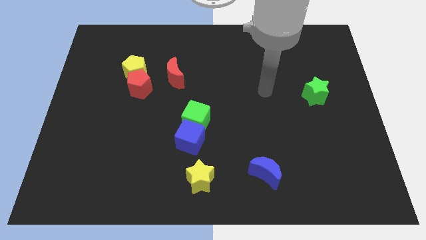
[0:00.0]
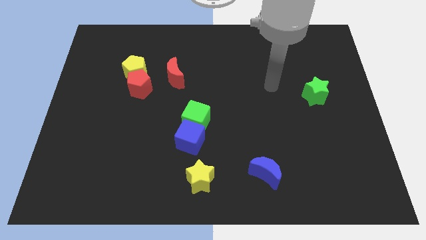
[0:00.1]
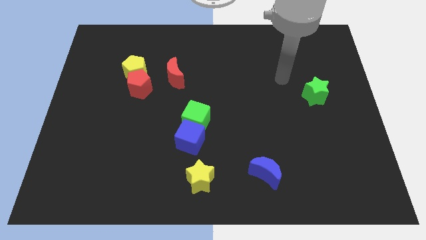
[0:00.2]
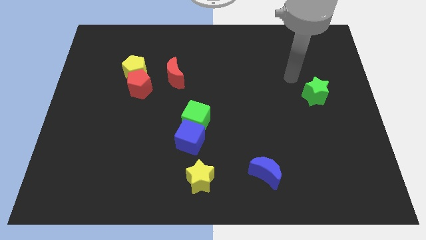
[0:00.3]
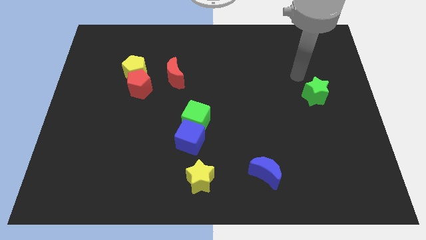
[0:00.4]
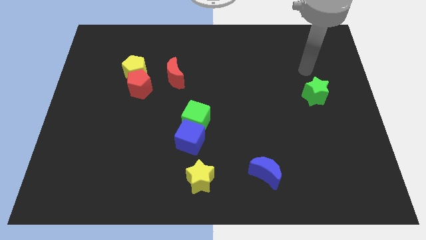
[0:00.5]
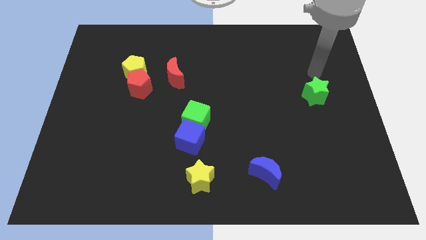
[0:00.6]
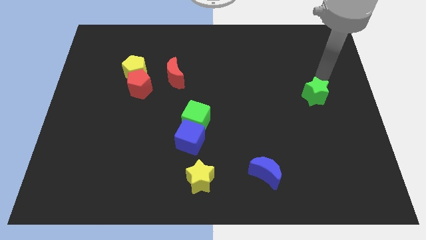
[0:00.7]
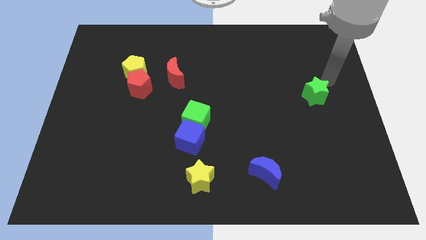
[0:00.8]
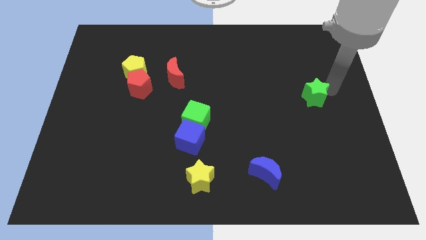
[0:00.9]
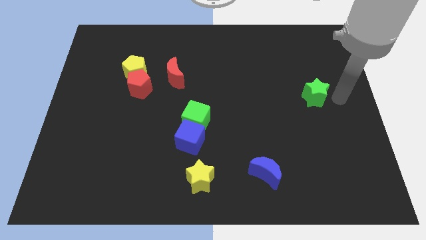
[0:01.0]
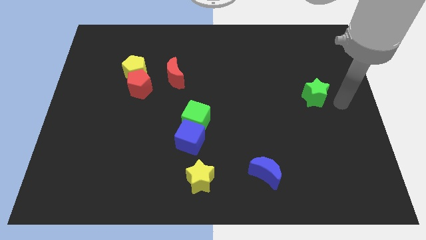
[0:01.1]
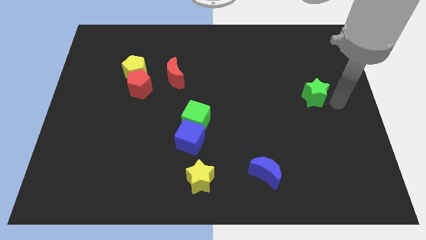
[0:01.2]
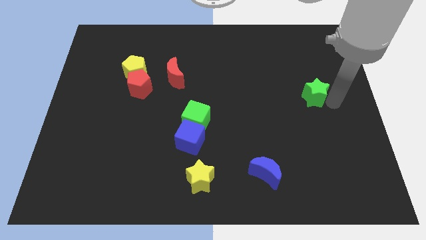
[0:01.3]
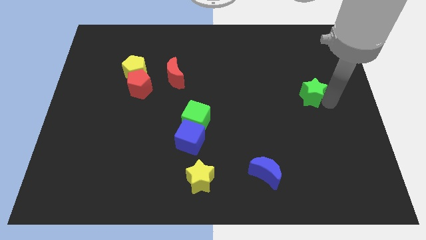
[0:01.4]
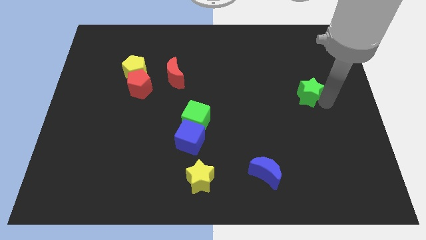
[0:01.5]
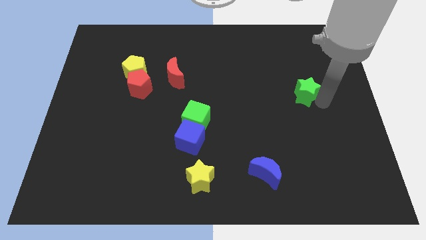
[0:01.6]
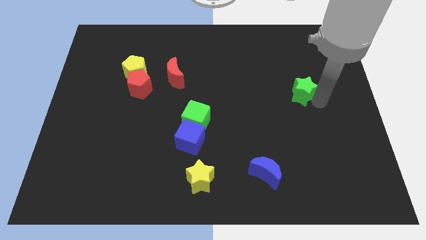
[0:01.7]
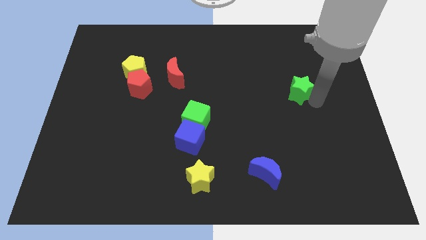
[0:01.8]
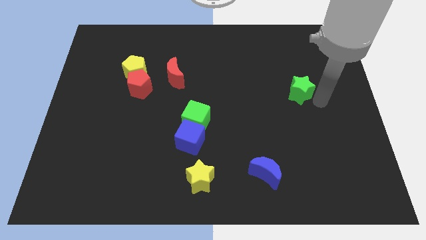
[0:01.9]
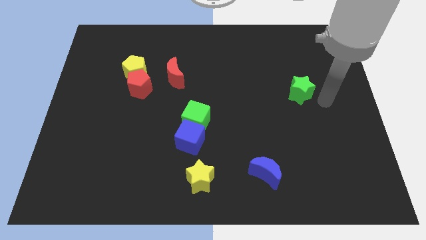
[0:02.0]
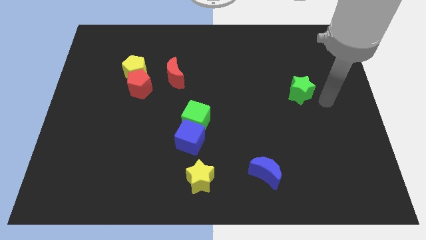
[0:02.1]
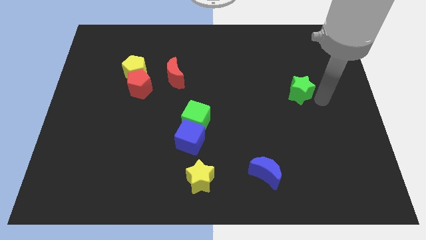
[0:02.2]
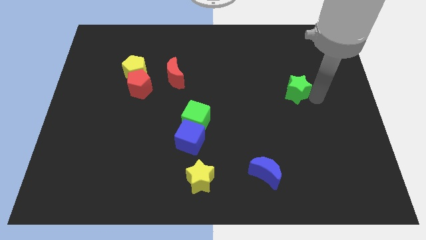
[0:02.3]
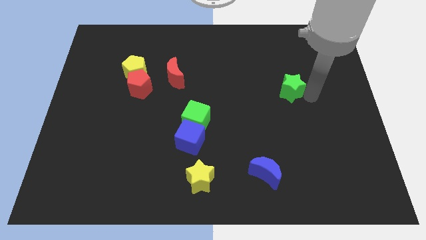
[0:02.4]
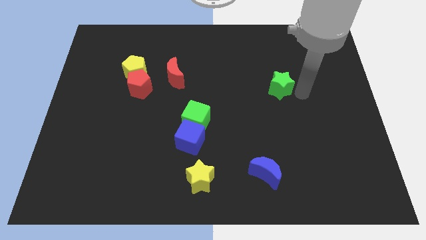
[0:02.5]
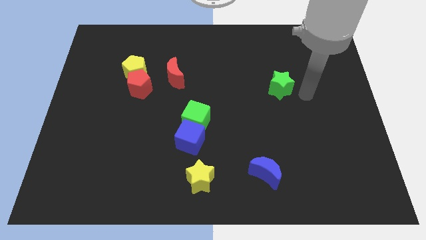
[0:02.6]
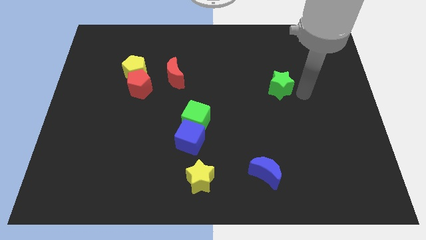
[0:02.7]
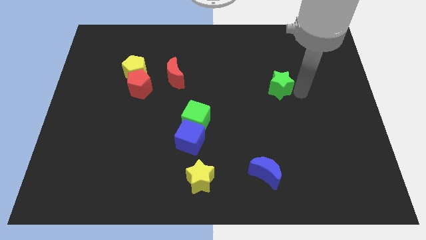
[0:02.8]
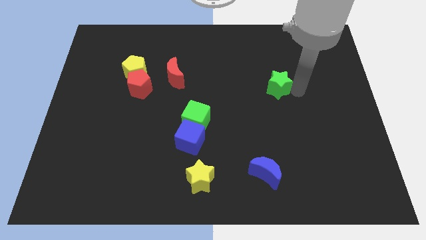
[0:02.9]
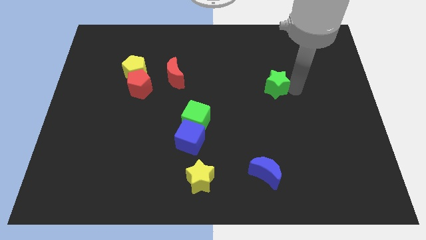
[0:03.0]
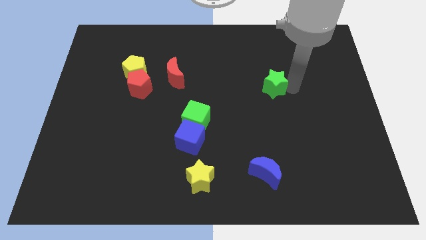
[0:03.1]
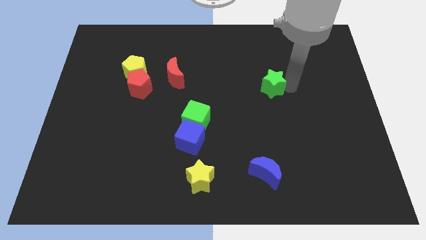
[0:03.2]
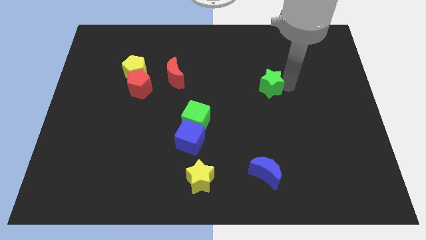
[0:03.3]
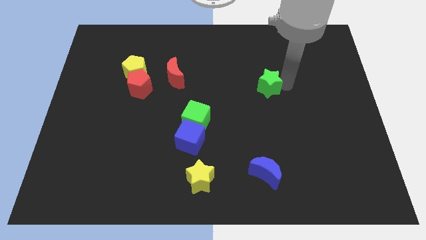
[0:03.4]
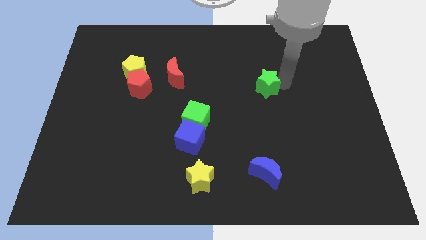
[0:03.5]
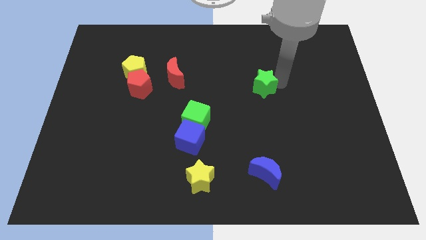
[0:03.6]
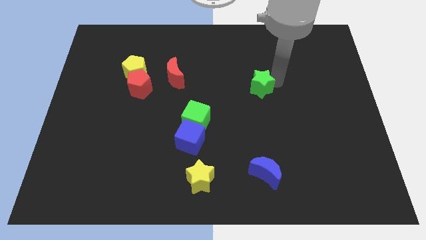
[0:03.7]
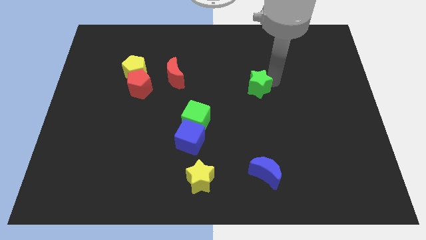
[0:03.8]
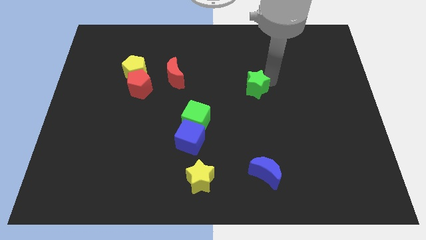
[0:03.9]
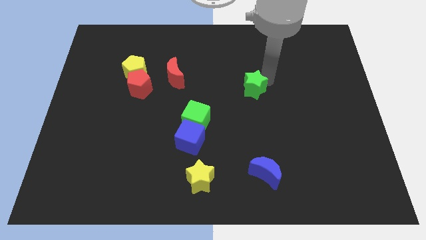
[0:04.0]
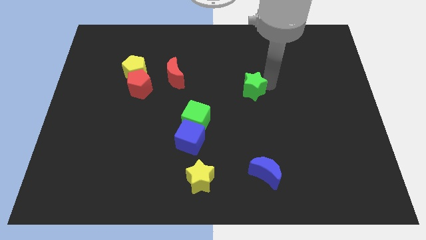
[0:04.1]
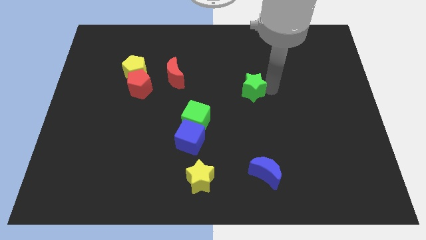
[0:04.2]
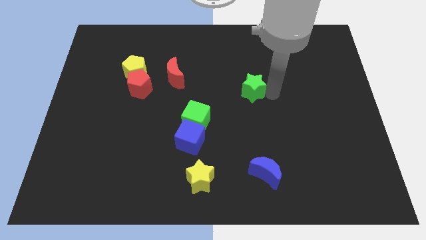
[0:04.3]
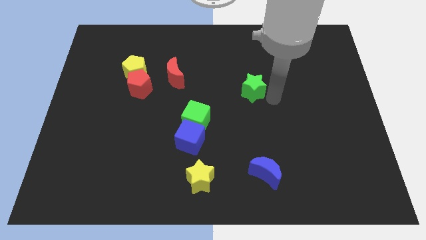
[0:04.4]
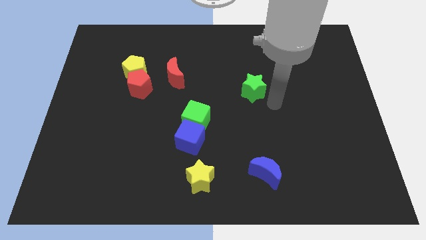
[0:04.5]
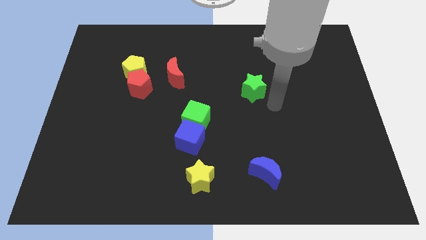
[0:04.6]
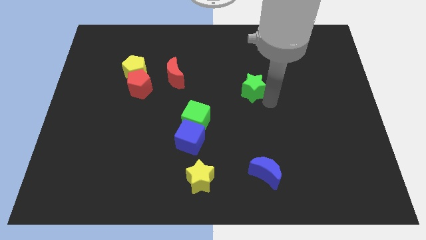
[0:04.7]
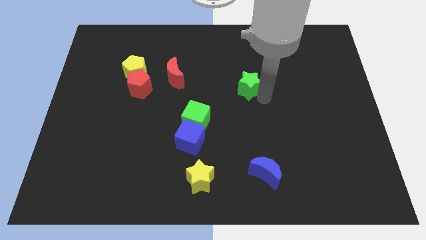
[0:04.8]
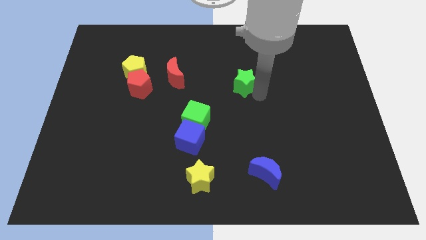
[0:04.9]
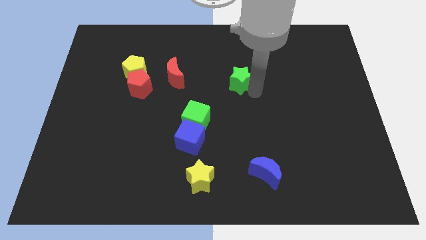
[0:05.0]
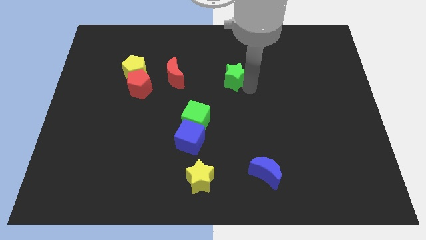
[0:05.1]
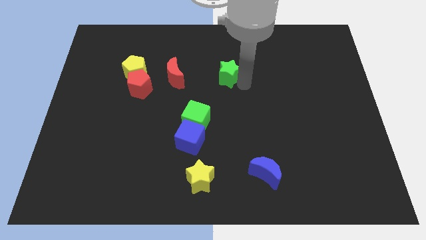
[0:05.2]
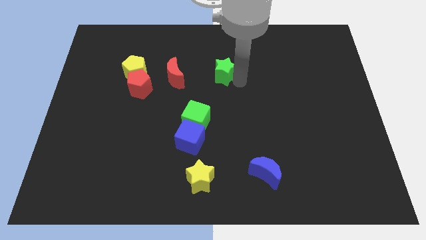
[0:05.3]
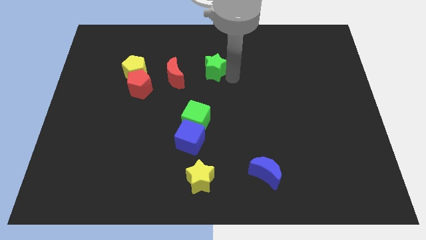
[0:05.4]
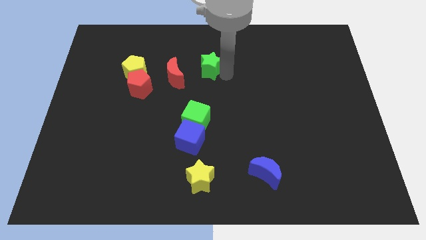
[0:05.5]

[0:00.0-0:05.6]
slide the green star diagonally up and to the right of the red moon

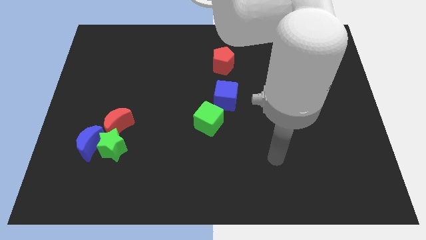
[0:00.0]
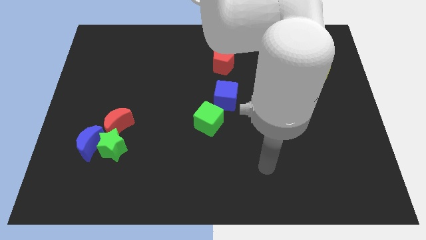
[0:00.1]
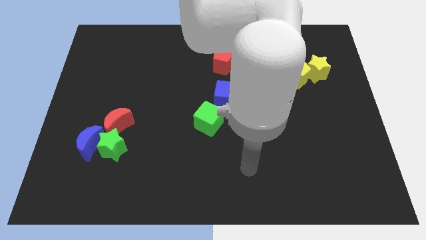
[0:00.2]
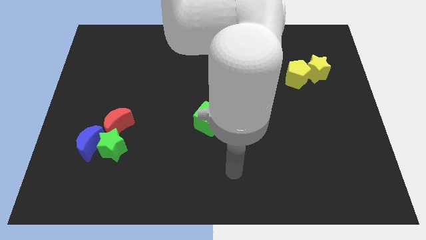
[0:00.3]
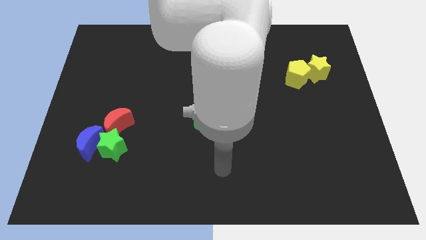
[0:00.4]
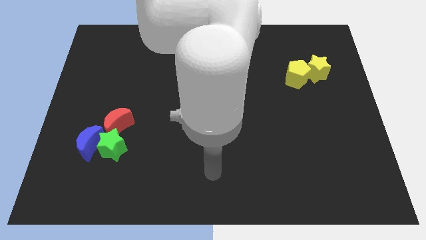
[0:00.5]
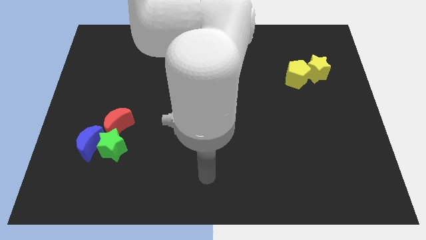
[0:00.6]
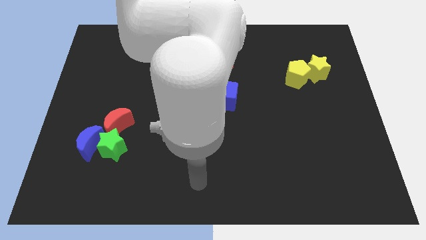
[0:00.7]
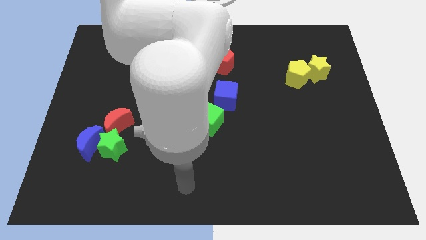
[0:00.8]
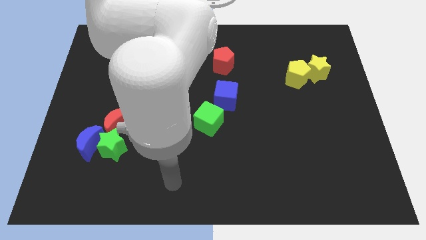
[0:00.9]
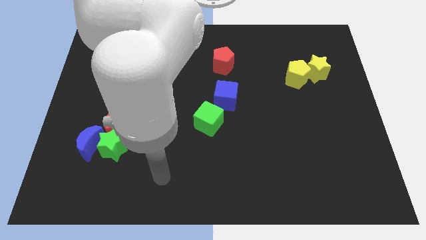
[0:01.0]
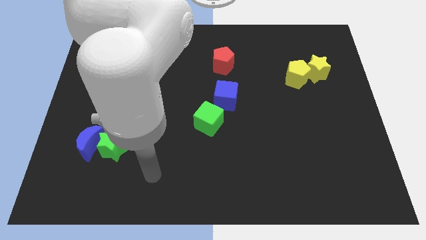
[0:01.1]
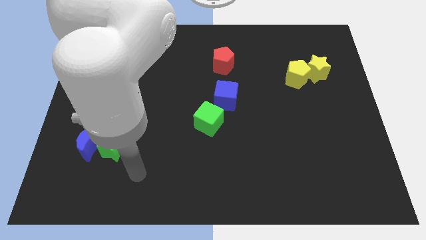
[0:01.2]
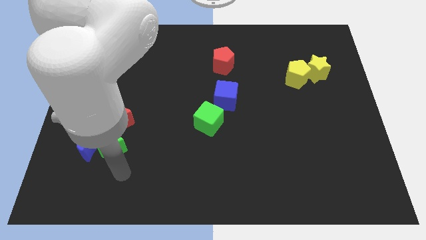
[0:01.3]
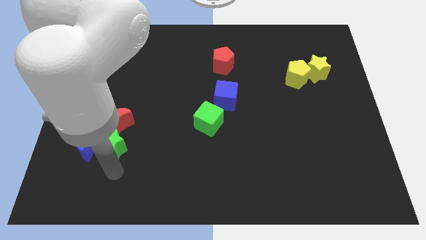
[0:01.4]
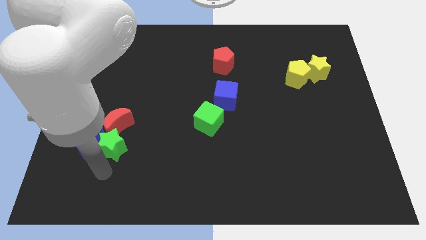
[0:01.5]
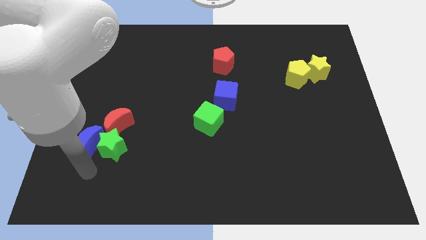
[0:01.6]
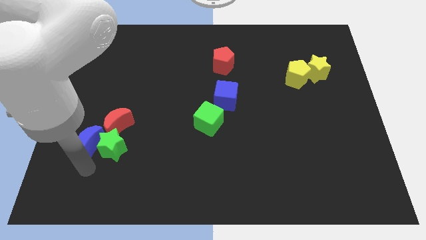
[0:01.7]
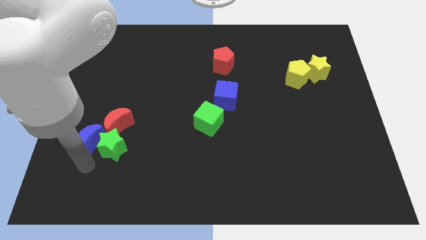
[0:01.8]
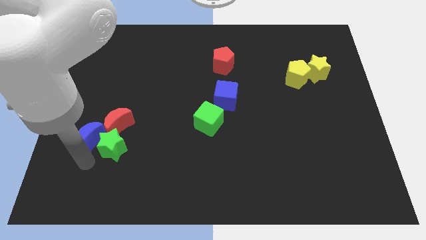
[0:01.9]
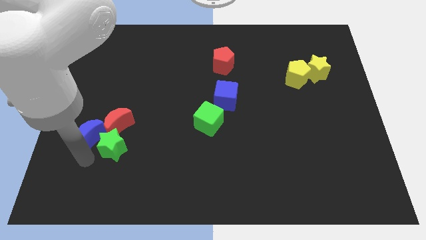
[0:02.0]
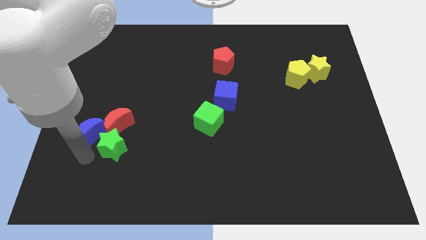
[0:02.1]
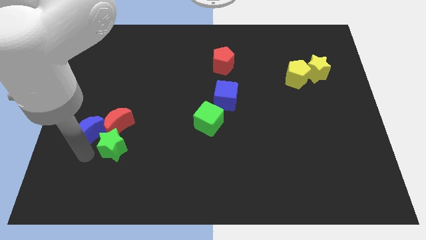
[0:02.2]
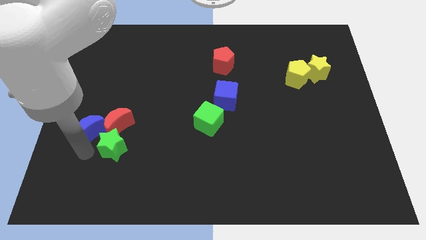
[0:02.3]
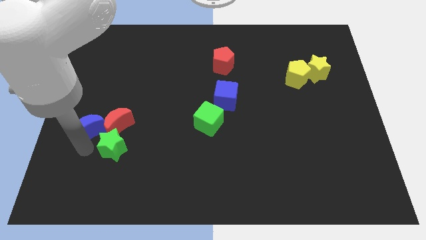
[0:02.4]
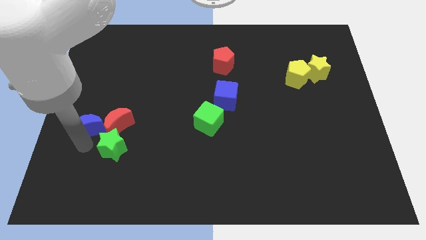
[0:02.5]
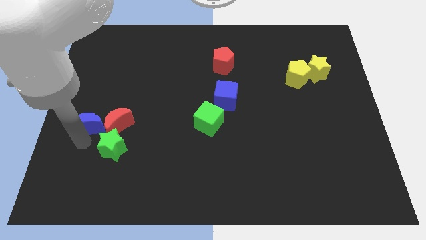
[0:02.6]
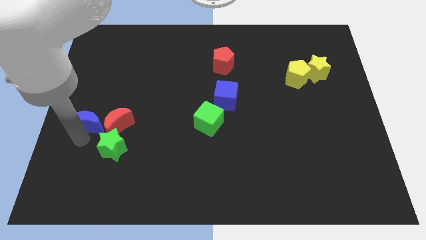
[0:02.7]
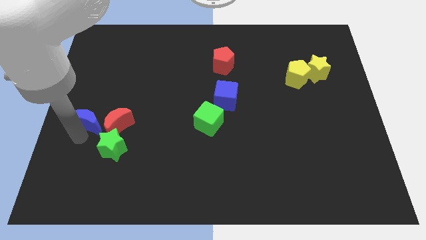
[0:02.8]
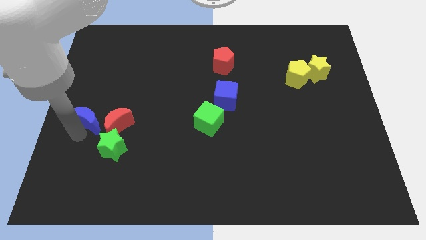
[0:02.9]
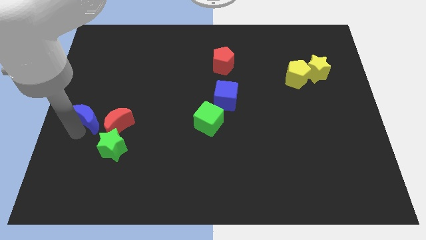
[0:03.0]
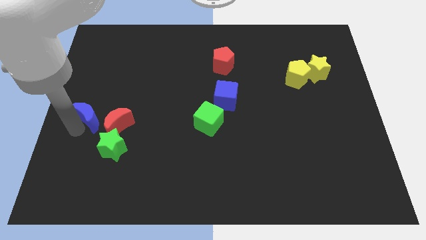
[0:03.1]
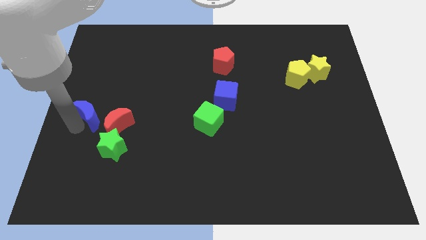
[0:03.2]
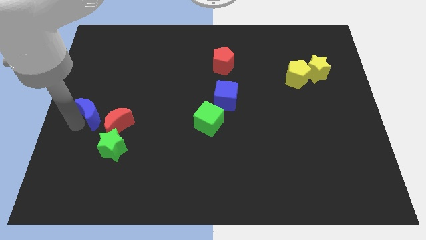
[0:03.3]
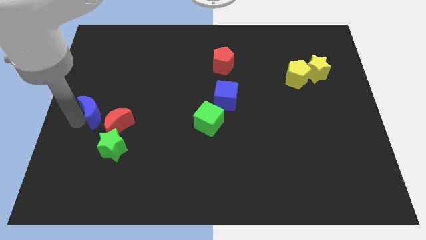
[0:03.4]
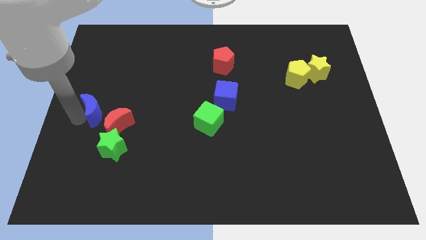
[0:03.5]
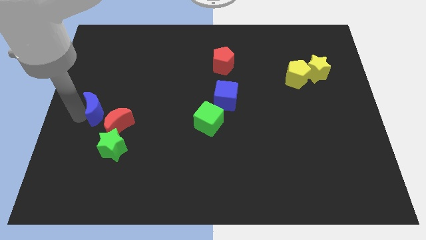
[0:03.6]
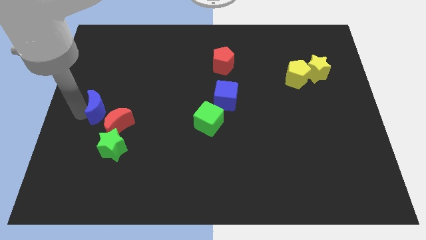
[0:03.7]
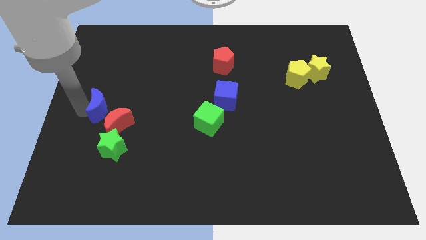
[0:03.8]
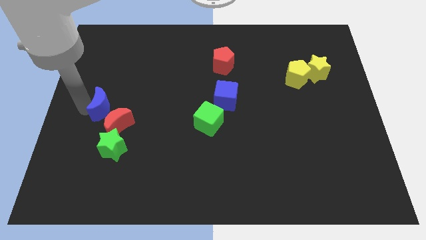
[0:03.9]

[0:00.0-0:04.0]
slide the blue moon above the green star
